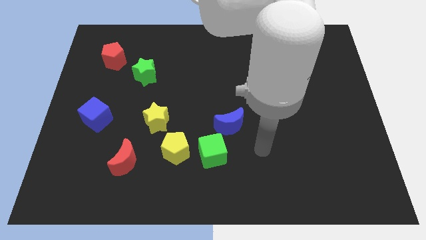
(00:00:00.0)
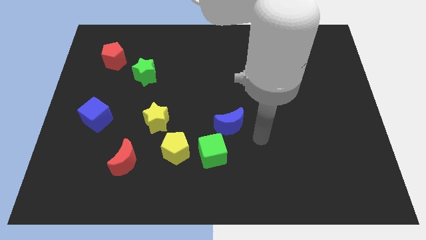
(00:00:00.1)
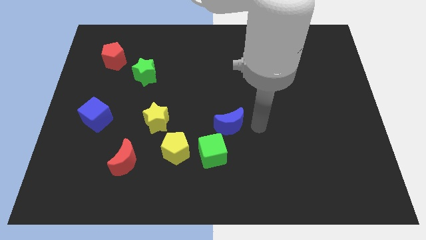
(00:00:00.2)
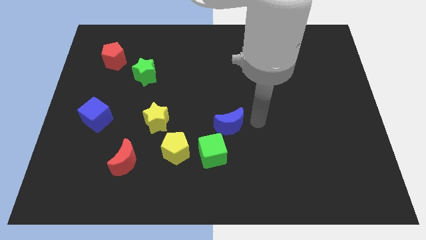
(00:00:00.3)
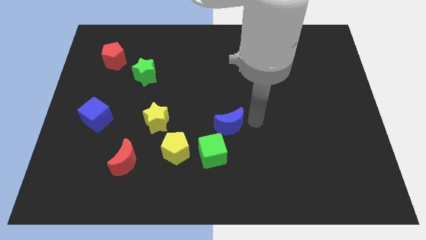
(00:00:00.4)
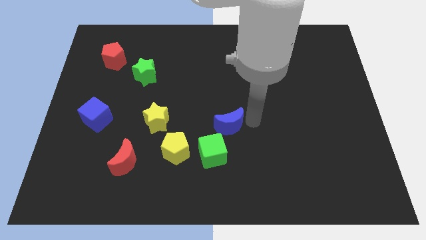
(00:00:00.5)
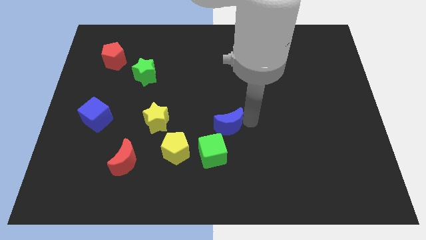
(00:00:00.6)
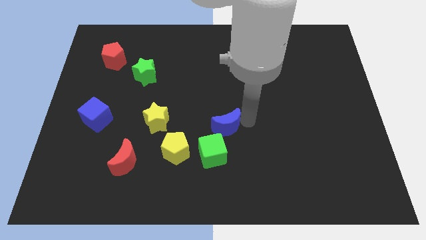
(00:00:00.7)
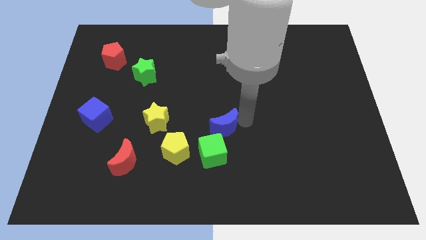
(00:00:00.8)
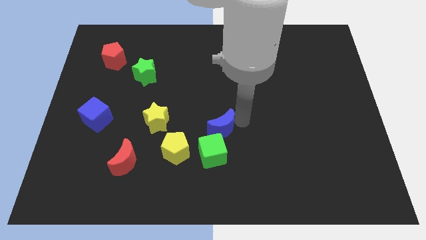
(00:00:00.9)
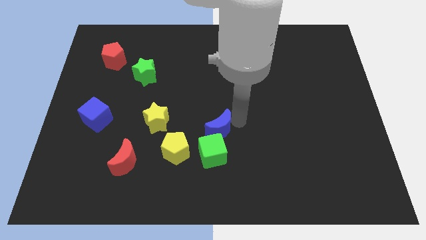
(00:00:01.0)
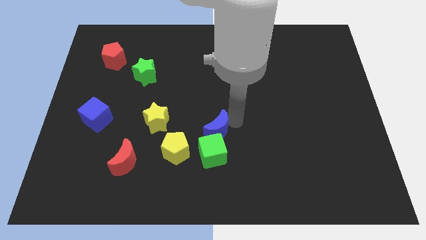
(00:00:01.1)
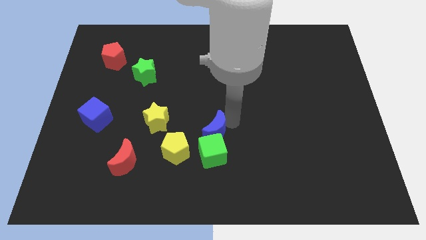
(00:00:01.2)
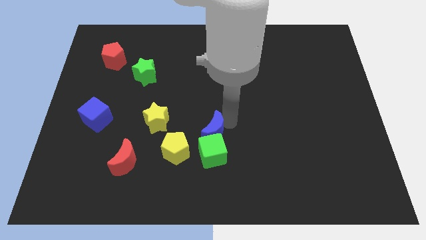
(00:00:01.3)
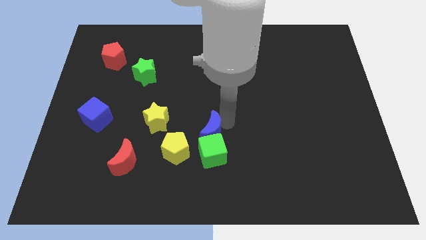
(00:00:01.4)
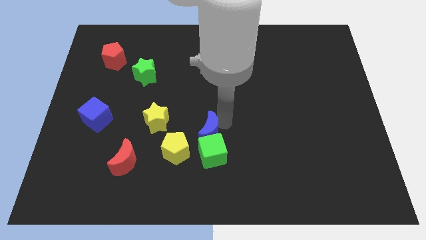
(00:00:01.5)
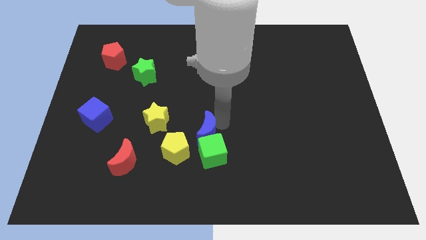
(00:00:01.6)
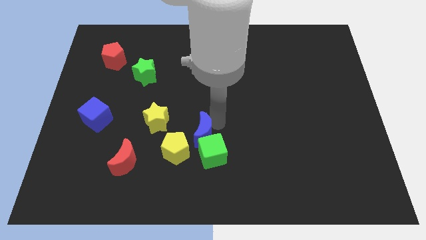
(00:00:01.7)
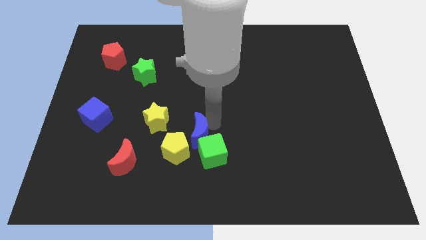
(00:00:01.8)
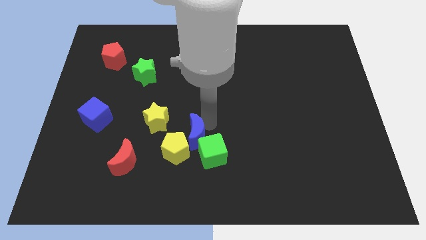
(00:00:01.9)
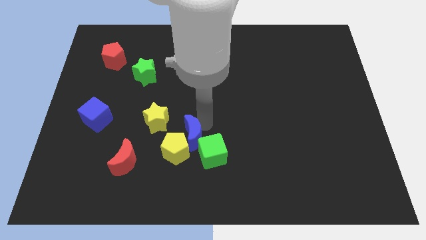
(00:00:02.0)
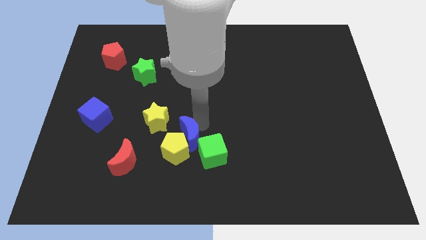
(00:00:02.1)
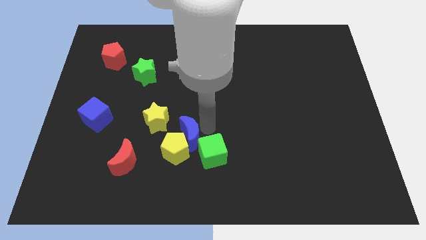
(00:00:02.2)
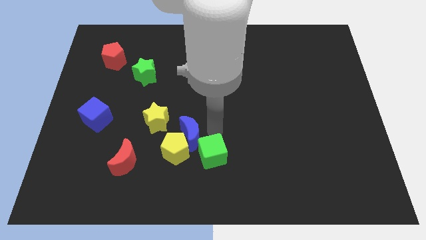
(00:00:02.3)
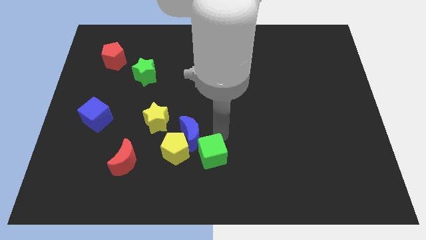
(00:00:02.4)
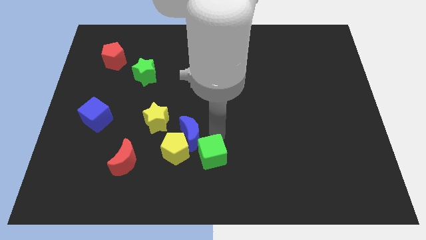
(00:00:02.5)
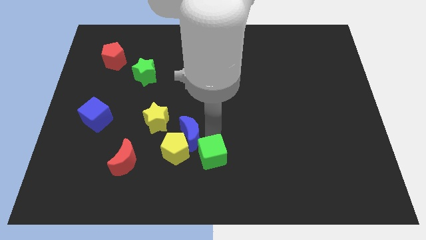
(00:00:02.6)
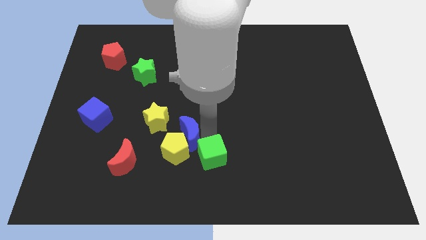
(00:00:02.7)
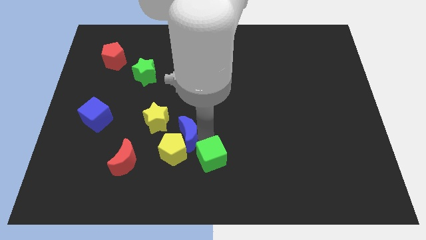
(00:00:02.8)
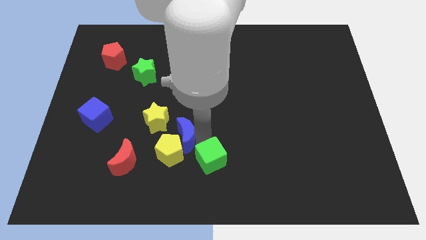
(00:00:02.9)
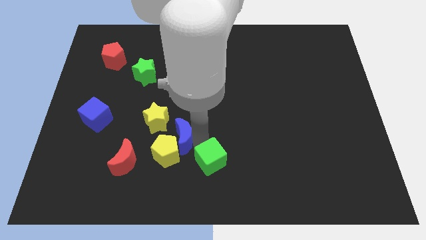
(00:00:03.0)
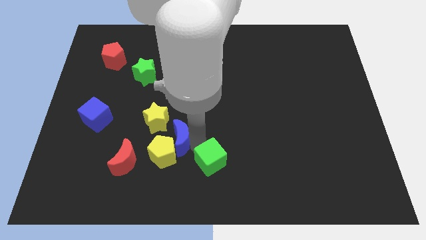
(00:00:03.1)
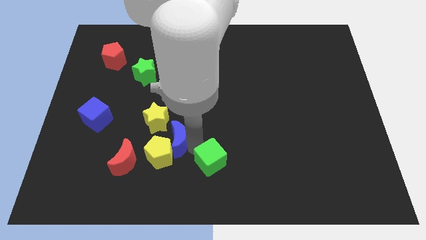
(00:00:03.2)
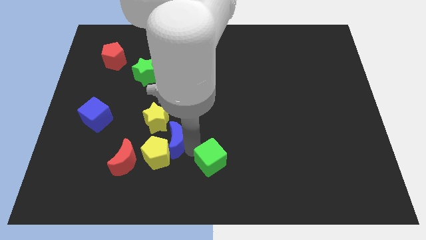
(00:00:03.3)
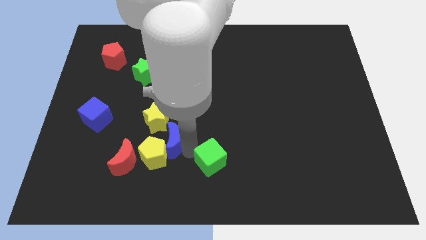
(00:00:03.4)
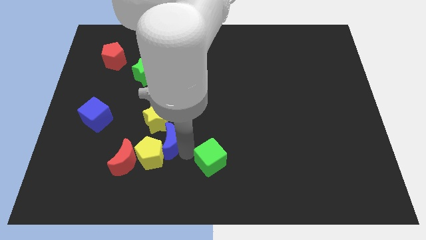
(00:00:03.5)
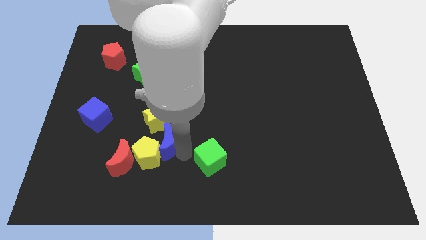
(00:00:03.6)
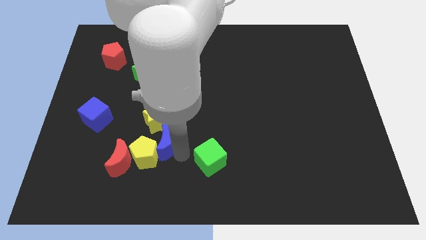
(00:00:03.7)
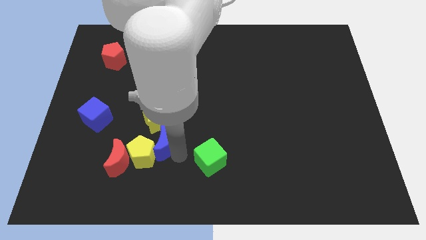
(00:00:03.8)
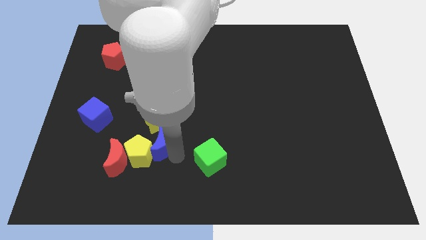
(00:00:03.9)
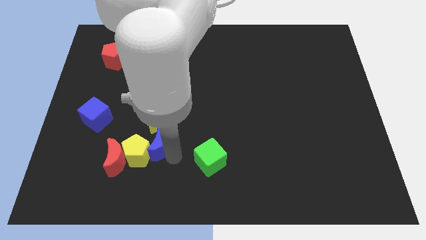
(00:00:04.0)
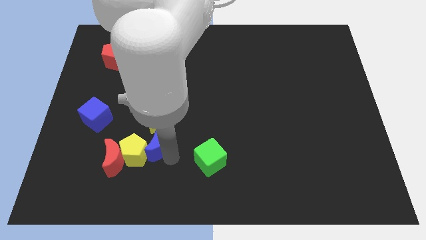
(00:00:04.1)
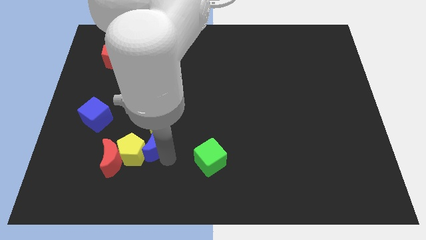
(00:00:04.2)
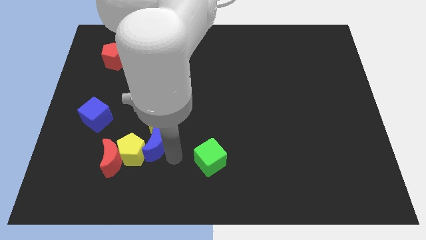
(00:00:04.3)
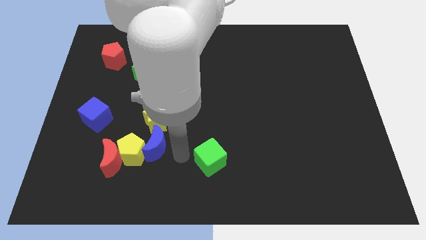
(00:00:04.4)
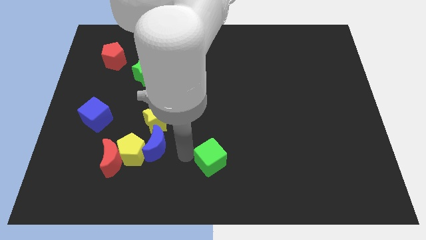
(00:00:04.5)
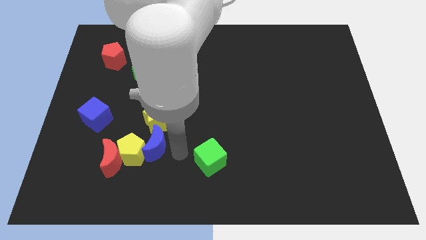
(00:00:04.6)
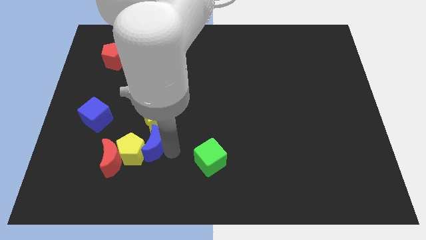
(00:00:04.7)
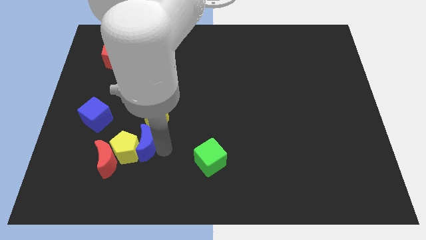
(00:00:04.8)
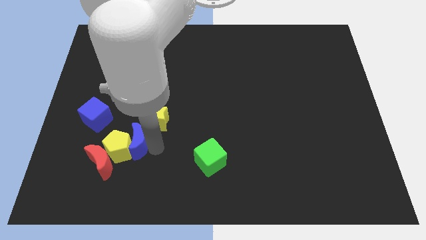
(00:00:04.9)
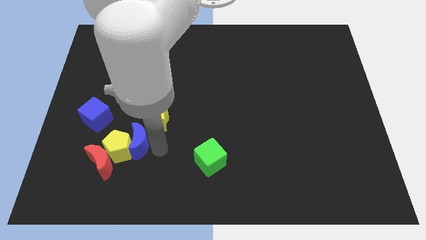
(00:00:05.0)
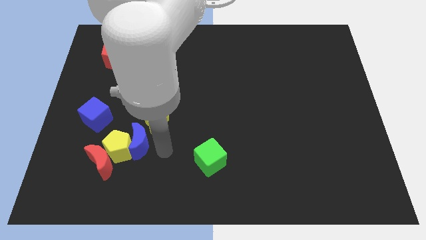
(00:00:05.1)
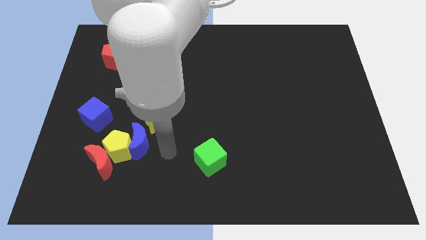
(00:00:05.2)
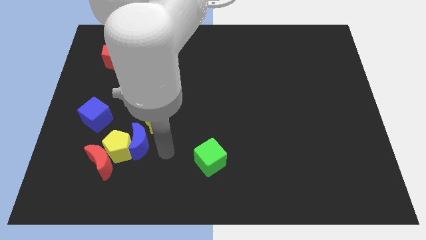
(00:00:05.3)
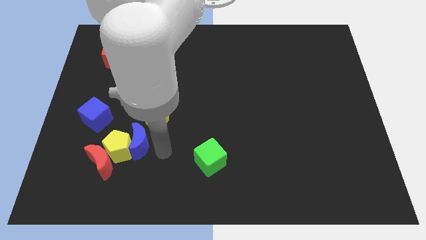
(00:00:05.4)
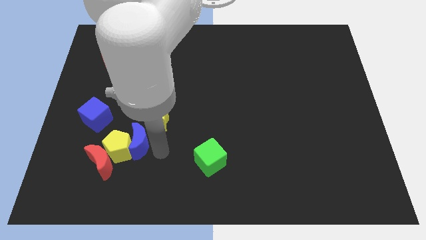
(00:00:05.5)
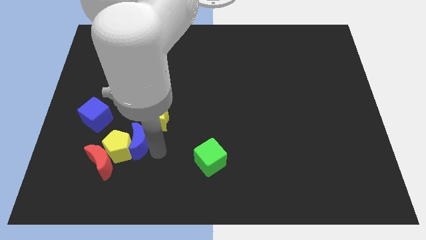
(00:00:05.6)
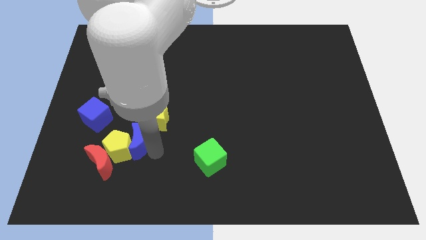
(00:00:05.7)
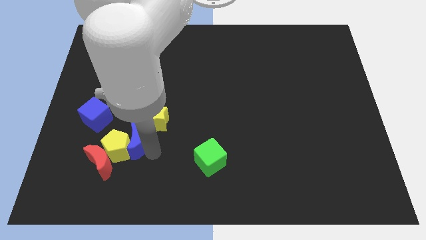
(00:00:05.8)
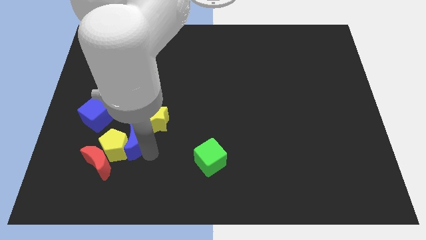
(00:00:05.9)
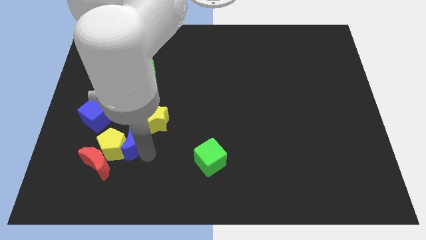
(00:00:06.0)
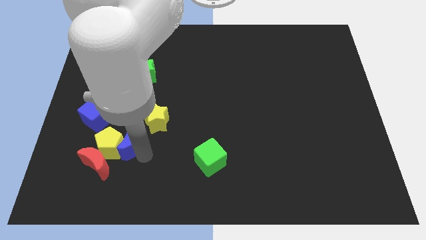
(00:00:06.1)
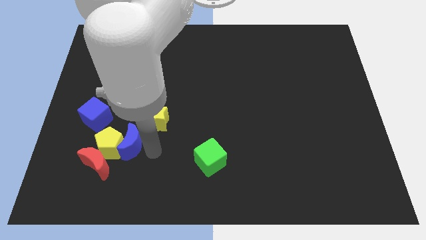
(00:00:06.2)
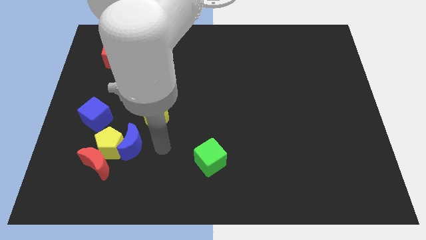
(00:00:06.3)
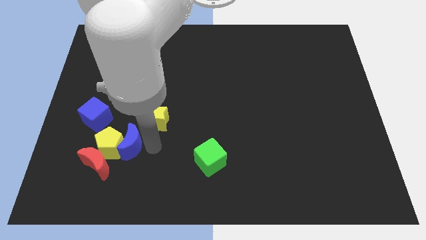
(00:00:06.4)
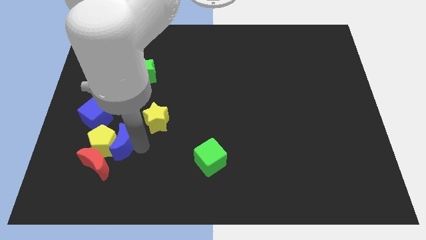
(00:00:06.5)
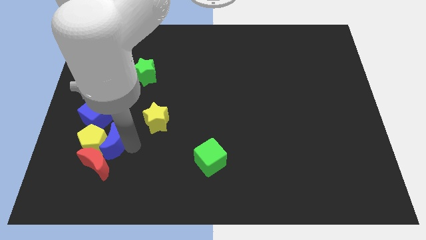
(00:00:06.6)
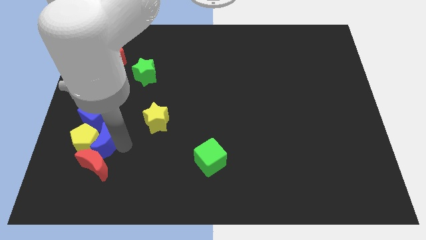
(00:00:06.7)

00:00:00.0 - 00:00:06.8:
push the blue moon diagonally up and to the left of the red moon
